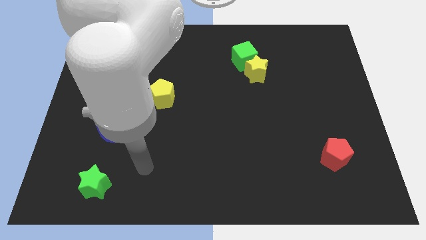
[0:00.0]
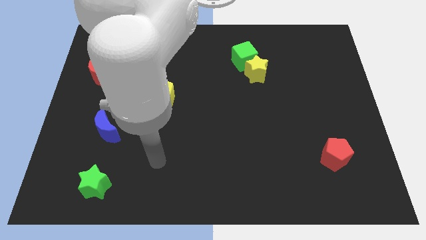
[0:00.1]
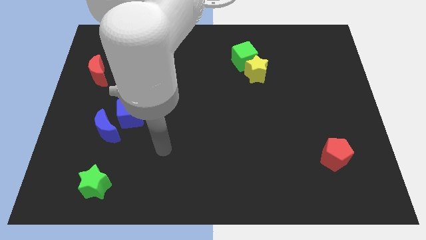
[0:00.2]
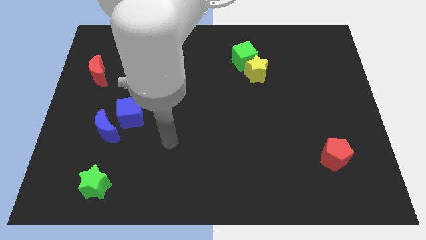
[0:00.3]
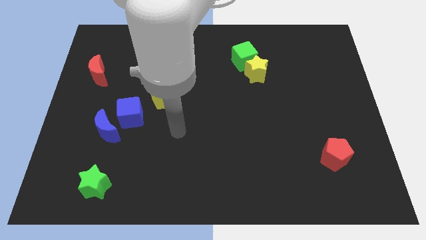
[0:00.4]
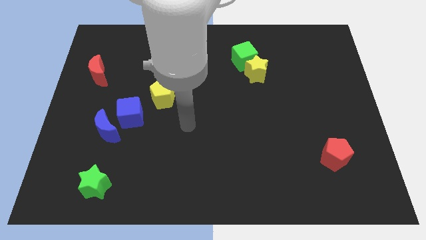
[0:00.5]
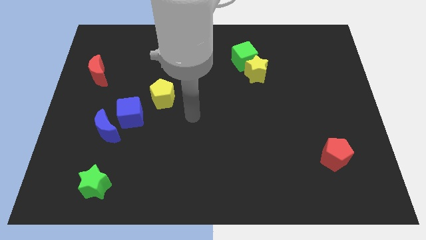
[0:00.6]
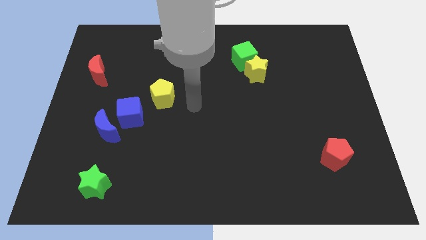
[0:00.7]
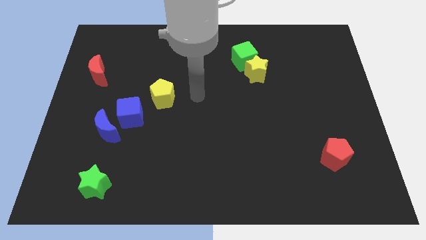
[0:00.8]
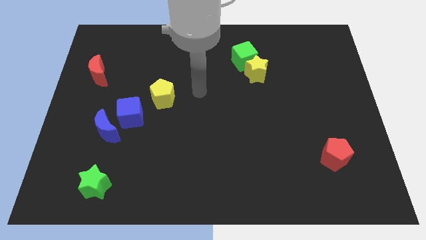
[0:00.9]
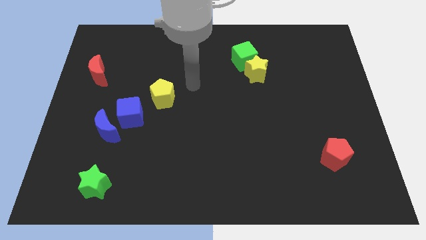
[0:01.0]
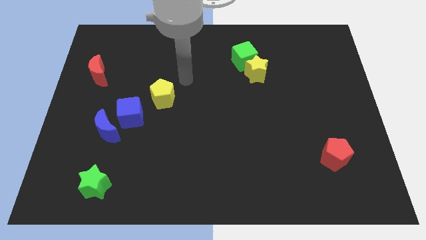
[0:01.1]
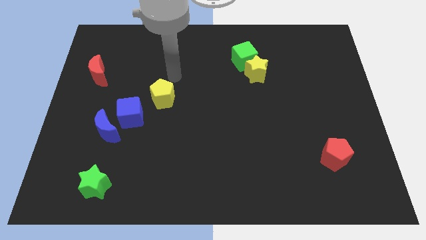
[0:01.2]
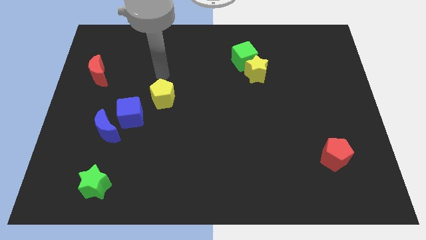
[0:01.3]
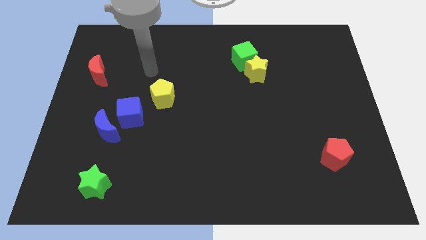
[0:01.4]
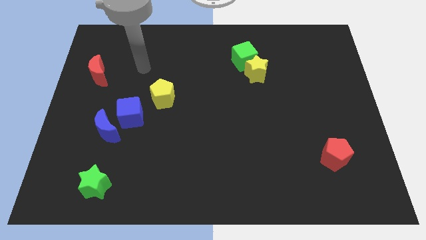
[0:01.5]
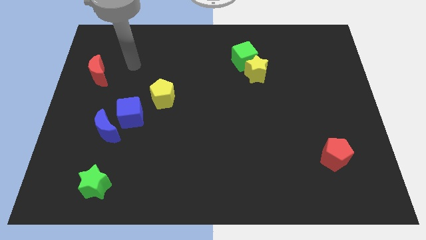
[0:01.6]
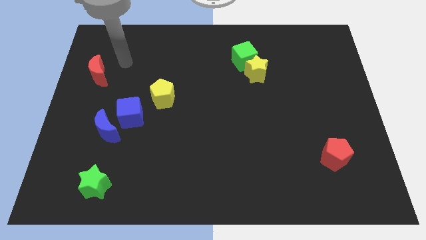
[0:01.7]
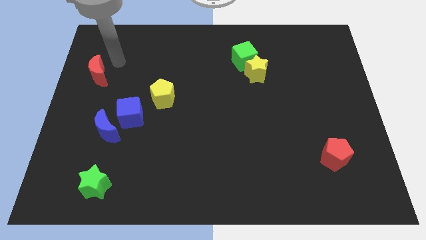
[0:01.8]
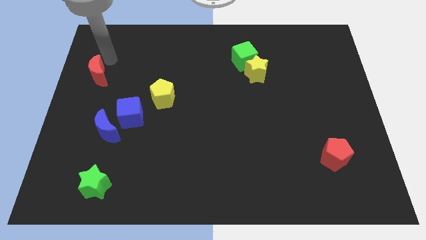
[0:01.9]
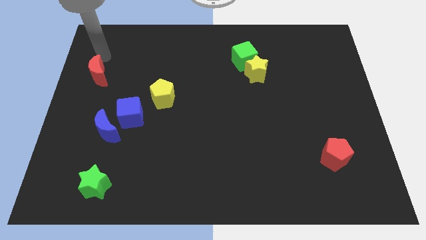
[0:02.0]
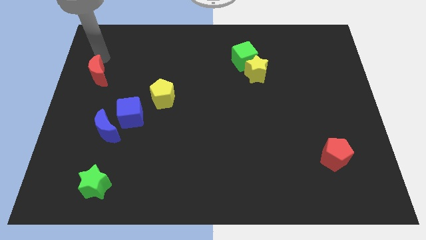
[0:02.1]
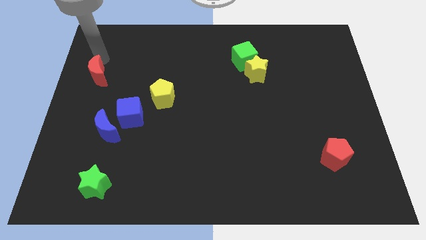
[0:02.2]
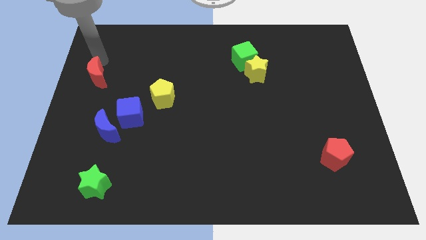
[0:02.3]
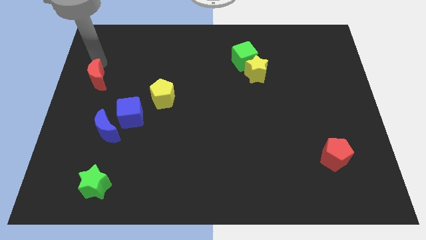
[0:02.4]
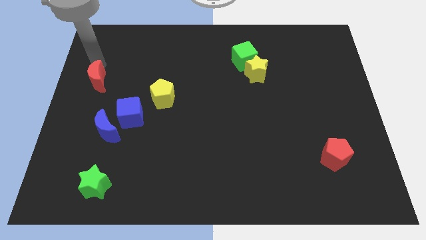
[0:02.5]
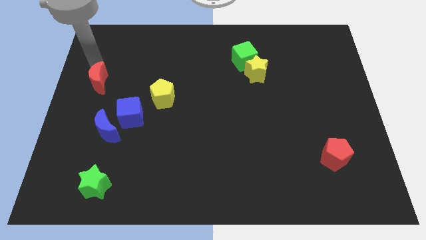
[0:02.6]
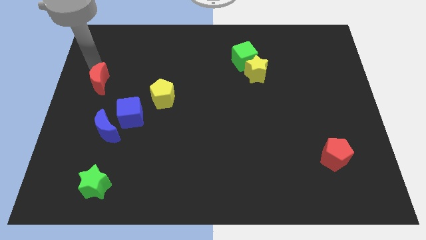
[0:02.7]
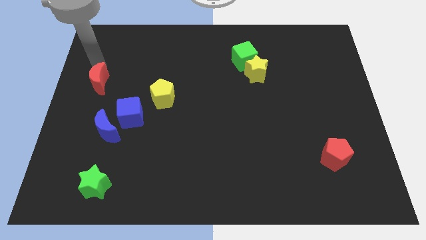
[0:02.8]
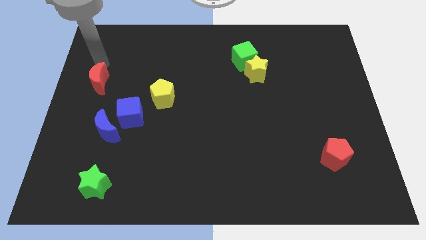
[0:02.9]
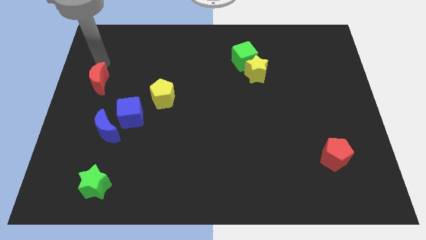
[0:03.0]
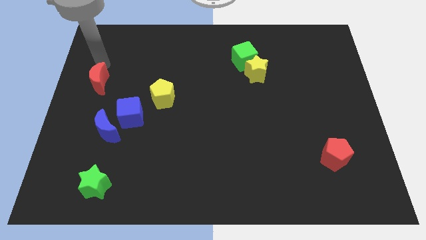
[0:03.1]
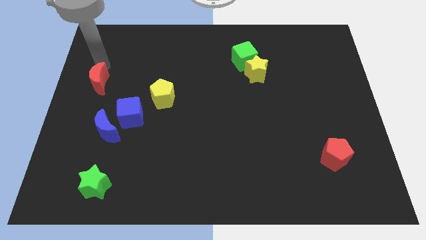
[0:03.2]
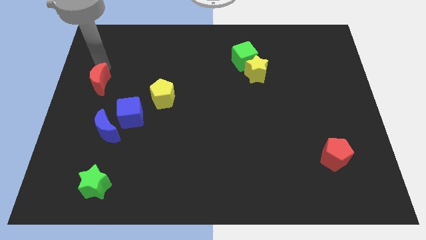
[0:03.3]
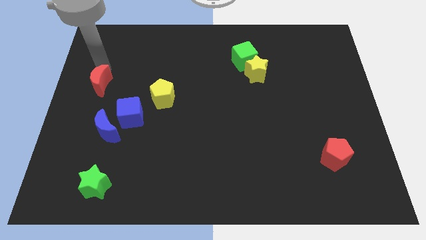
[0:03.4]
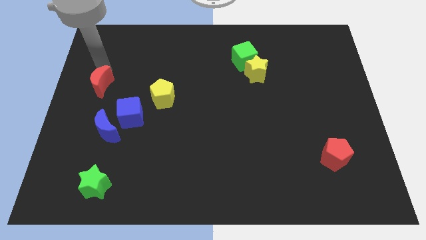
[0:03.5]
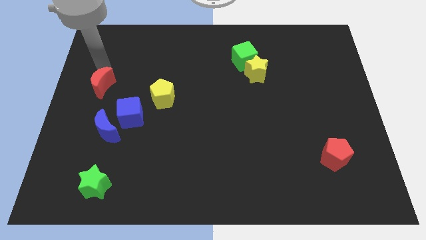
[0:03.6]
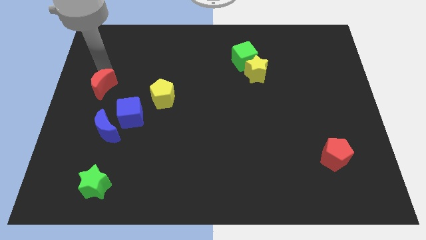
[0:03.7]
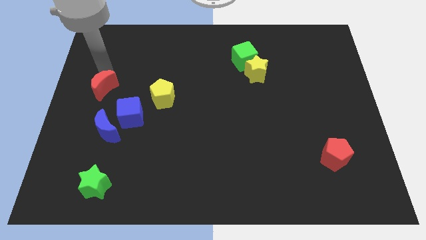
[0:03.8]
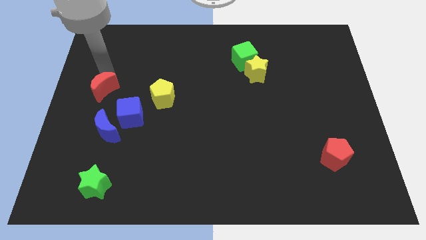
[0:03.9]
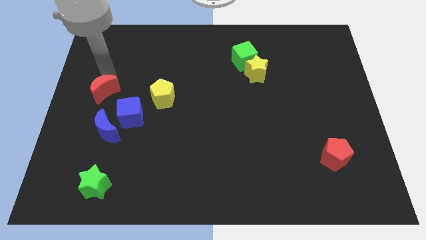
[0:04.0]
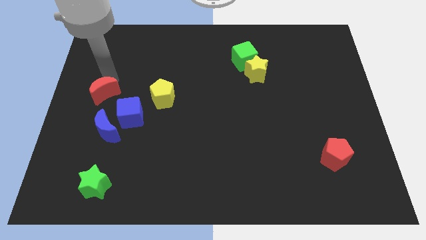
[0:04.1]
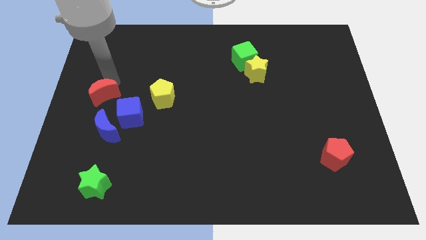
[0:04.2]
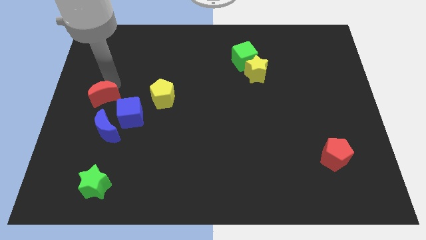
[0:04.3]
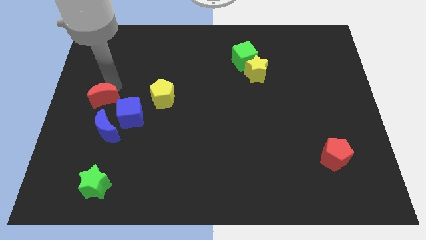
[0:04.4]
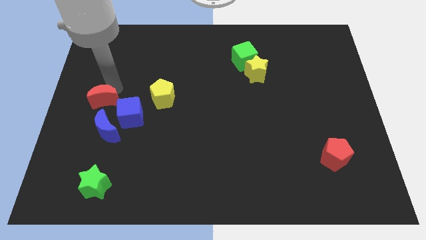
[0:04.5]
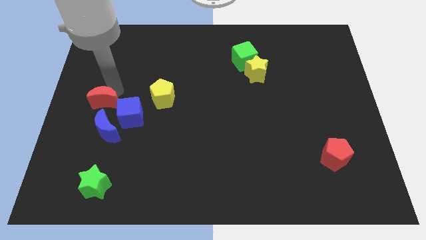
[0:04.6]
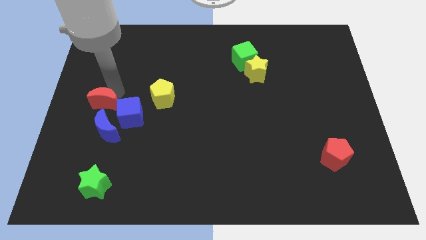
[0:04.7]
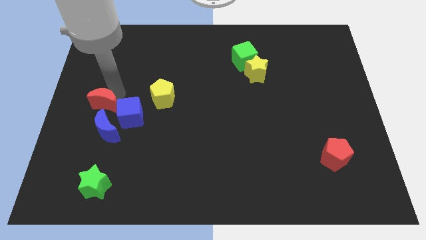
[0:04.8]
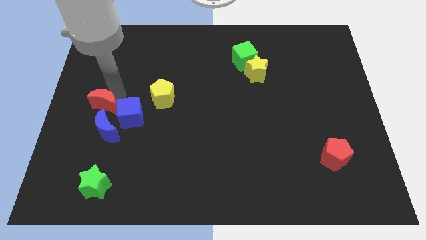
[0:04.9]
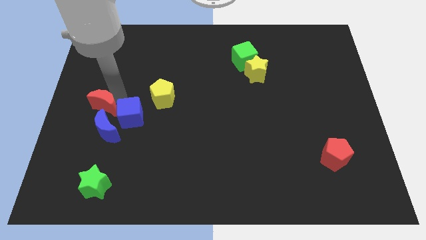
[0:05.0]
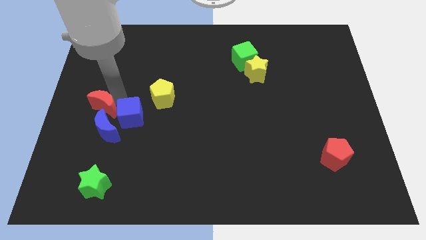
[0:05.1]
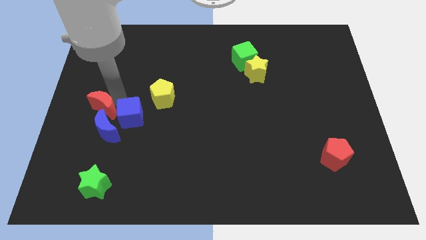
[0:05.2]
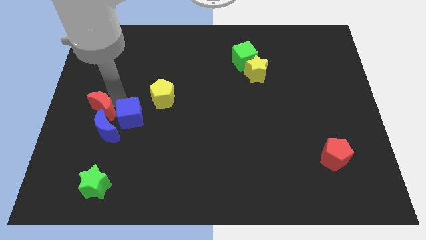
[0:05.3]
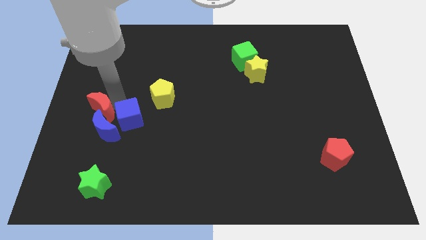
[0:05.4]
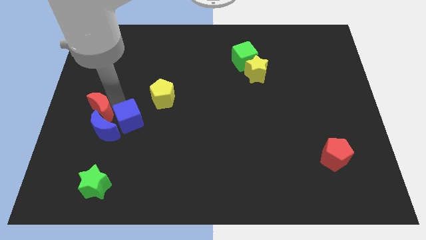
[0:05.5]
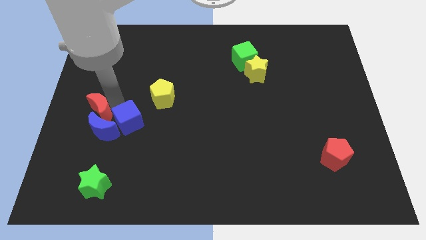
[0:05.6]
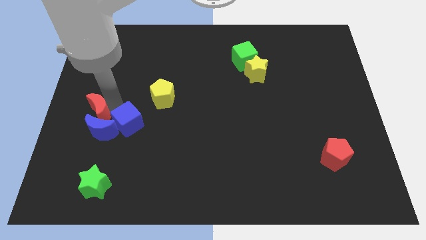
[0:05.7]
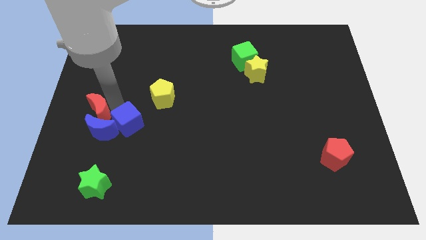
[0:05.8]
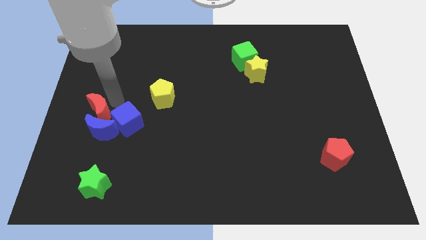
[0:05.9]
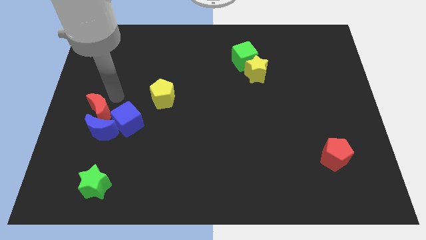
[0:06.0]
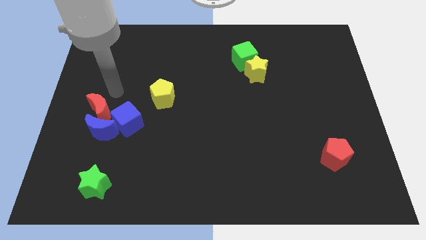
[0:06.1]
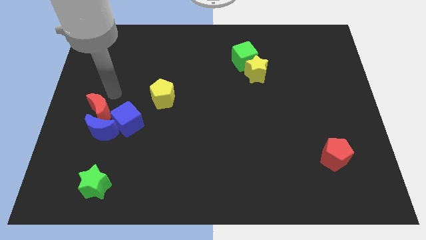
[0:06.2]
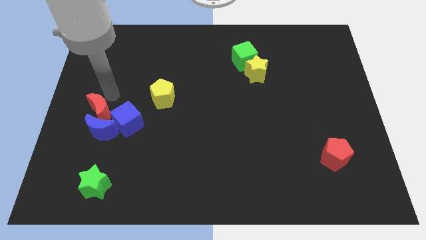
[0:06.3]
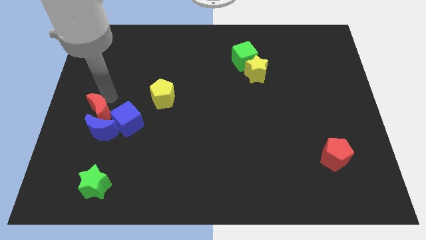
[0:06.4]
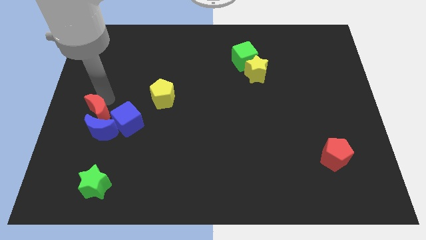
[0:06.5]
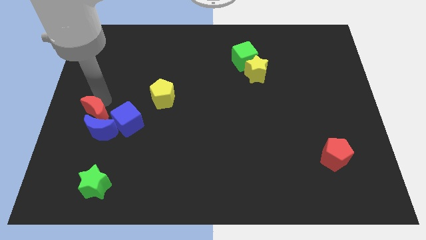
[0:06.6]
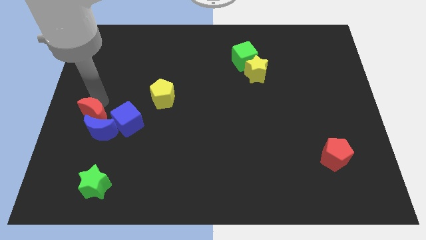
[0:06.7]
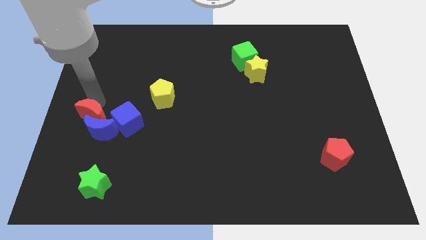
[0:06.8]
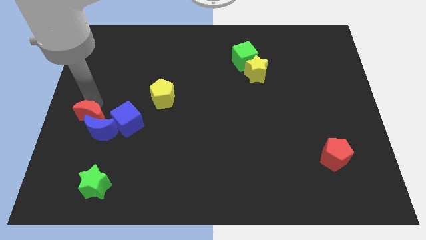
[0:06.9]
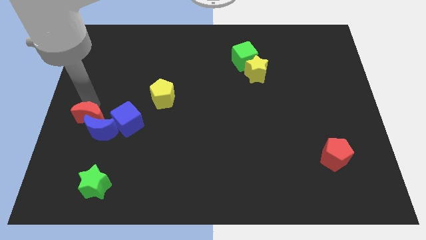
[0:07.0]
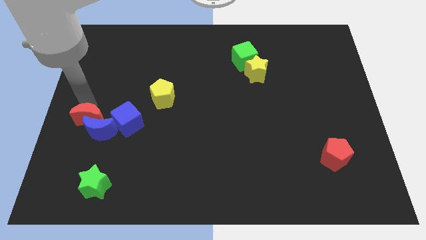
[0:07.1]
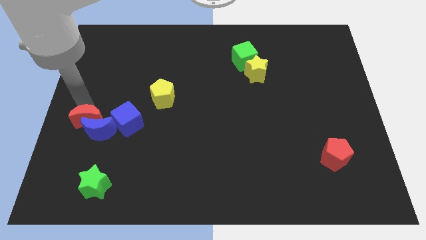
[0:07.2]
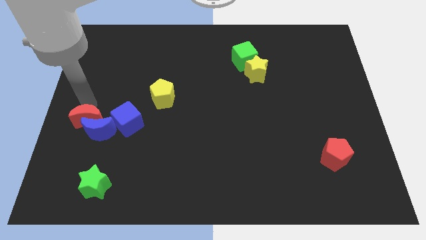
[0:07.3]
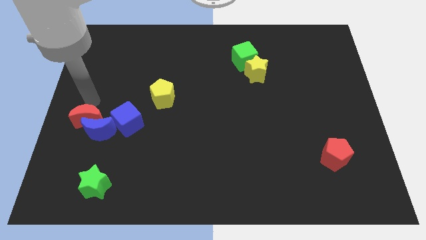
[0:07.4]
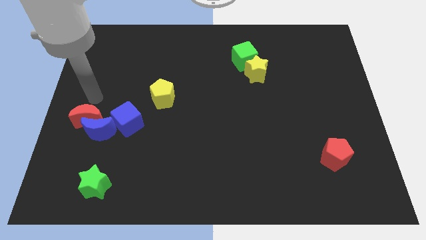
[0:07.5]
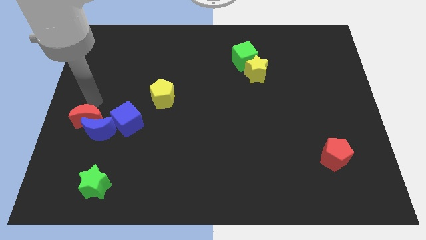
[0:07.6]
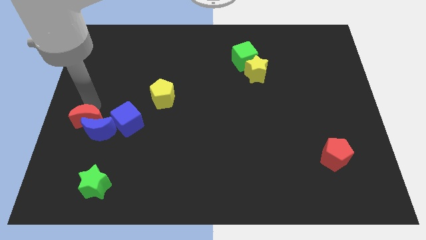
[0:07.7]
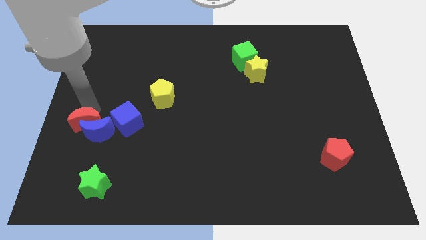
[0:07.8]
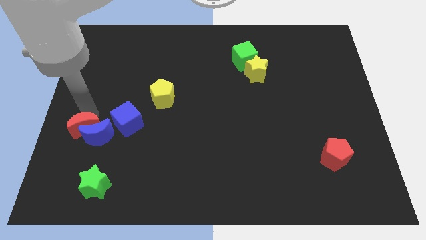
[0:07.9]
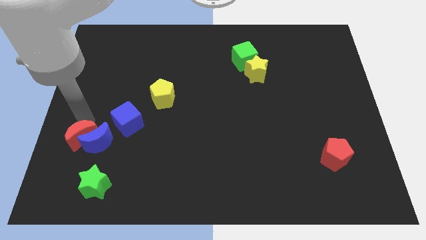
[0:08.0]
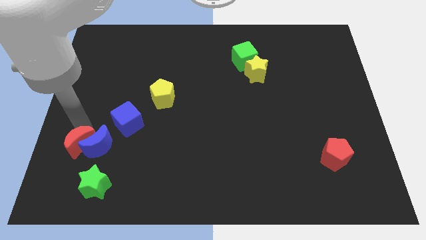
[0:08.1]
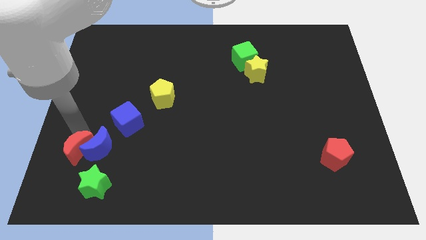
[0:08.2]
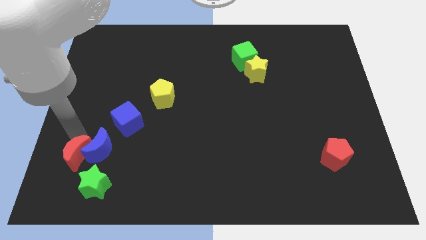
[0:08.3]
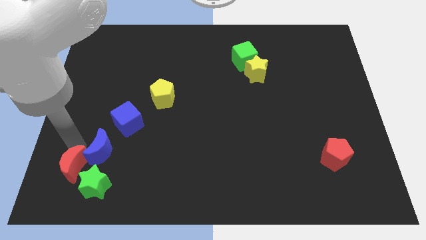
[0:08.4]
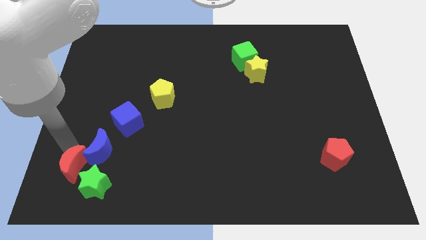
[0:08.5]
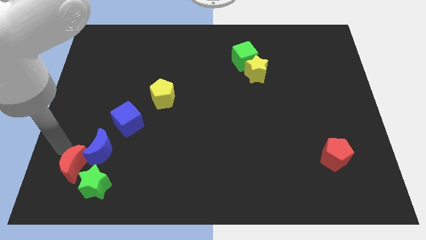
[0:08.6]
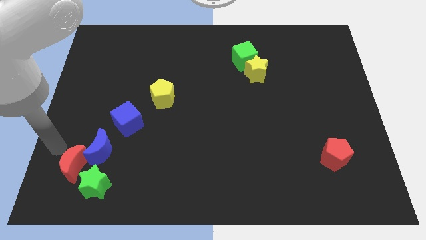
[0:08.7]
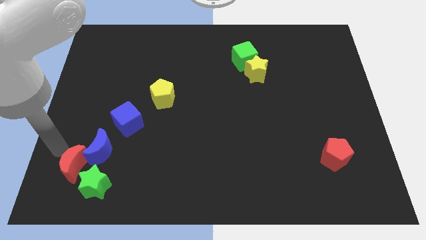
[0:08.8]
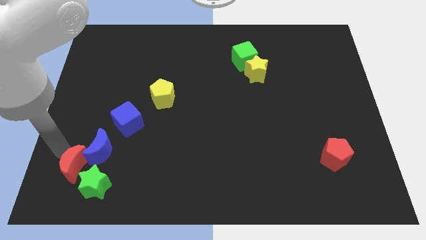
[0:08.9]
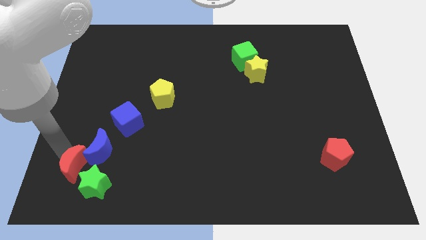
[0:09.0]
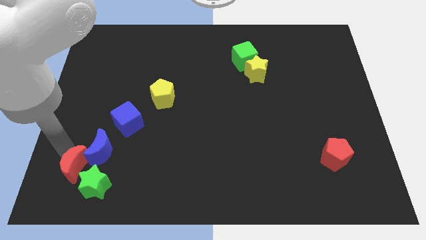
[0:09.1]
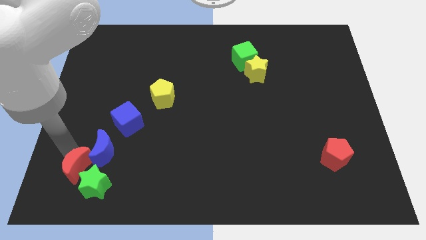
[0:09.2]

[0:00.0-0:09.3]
slide the red moon next to the green star
